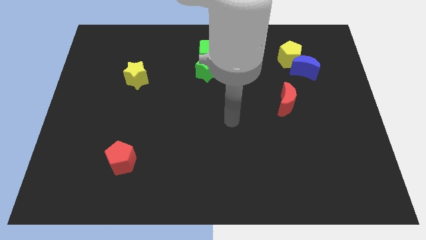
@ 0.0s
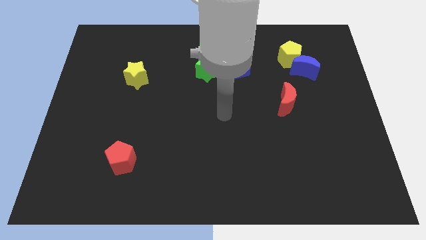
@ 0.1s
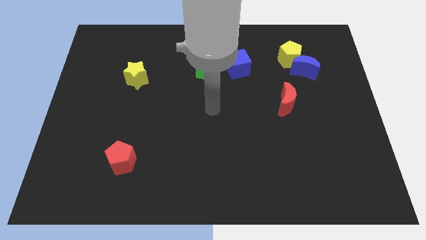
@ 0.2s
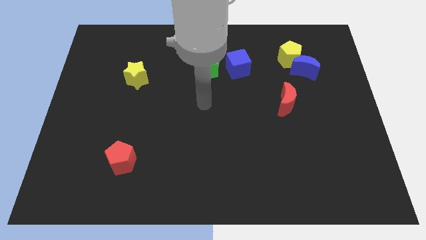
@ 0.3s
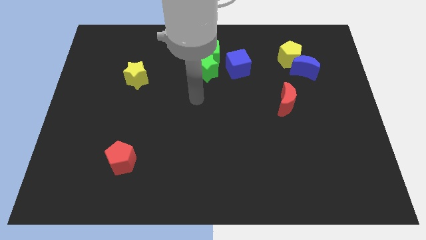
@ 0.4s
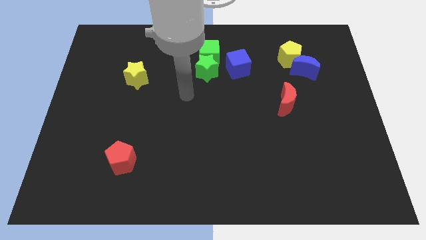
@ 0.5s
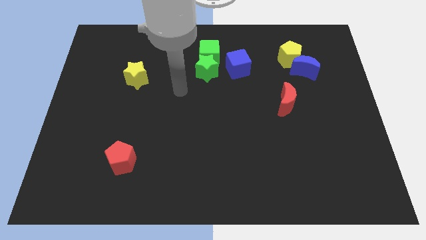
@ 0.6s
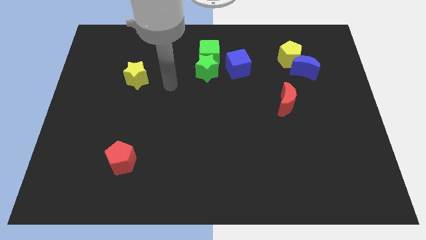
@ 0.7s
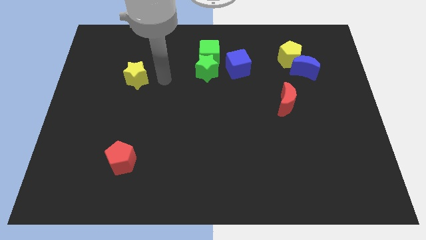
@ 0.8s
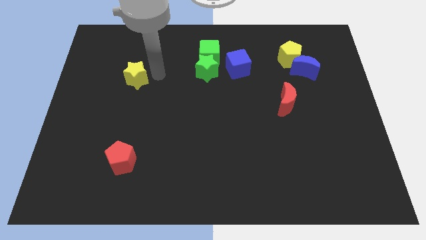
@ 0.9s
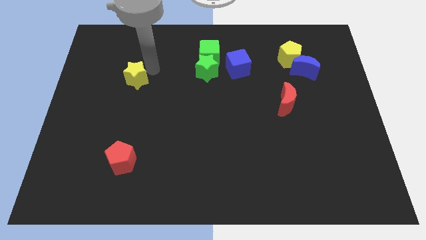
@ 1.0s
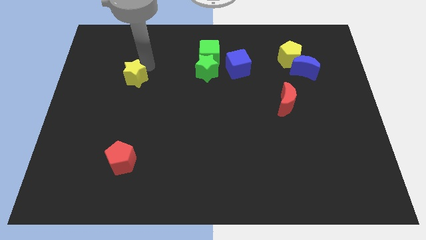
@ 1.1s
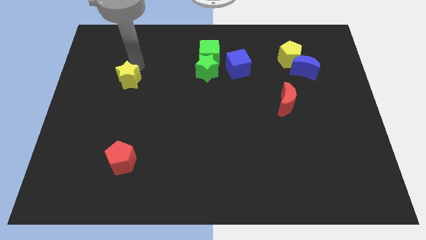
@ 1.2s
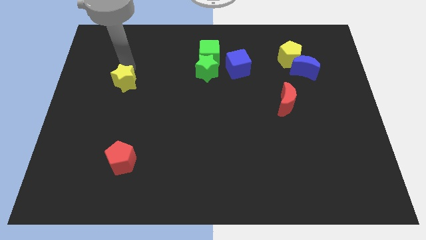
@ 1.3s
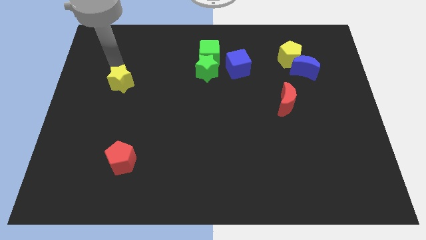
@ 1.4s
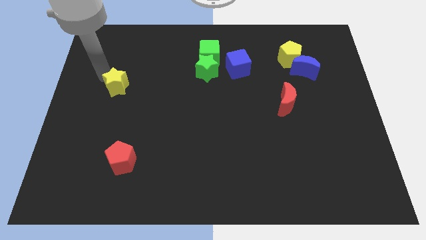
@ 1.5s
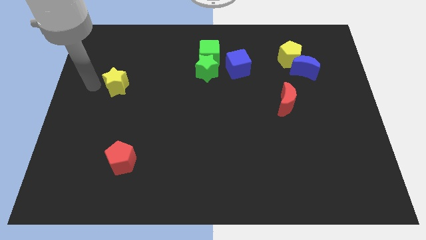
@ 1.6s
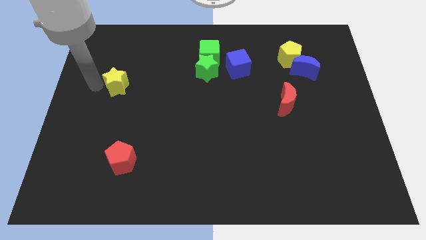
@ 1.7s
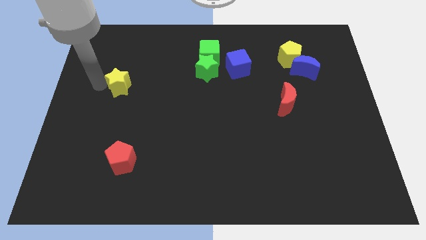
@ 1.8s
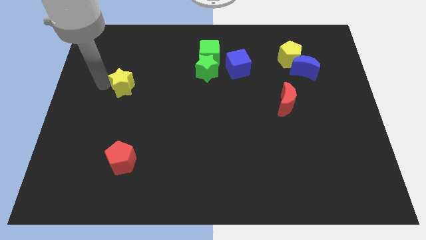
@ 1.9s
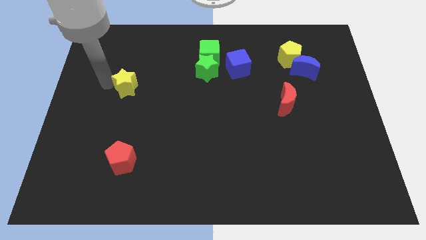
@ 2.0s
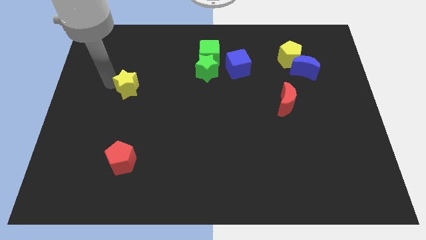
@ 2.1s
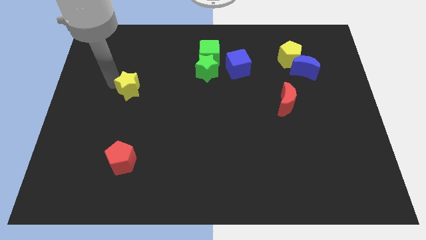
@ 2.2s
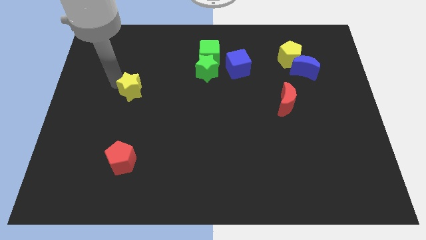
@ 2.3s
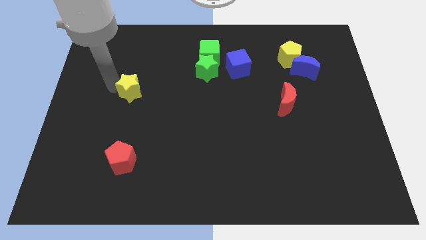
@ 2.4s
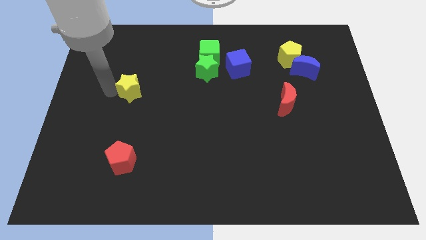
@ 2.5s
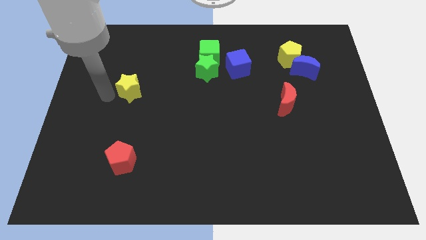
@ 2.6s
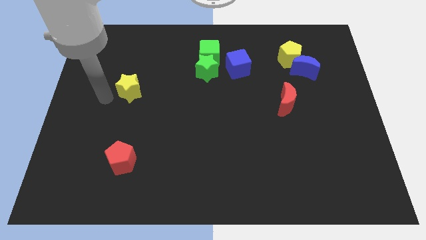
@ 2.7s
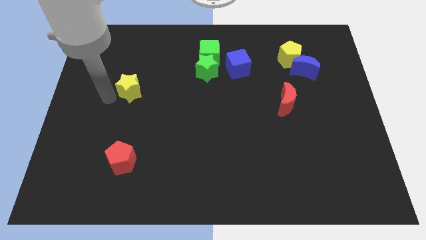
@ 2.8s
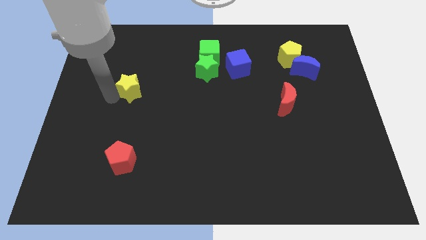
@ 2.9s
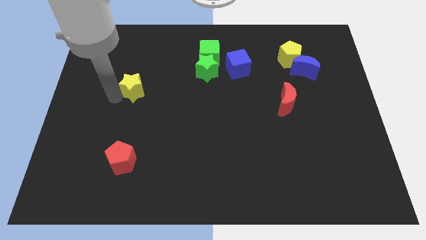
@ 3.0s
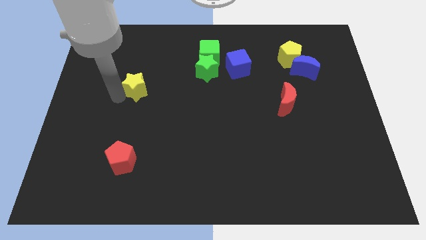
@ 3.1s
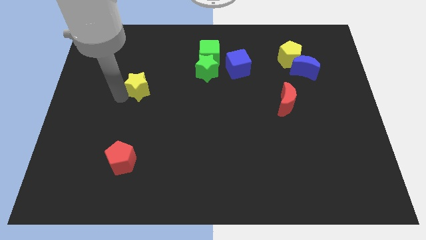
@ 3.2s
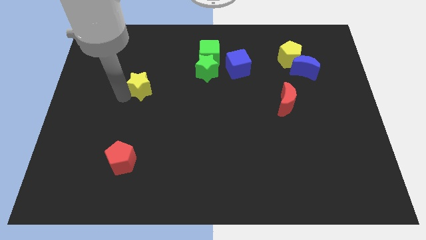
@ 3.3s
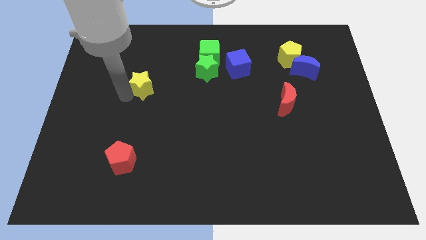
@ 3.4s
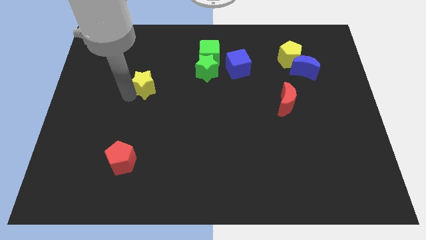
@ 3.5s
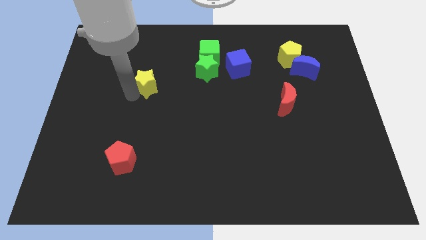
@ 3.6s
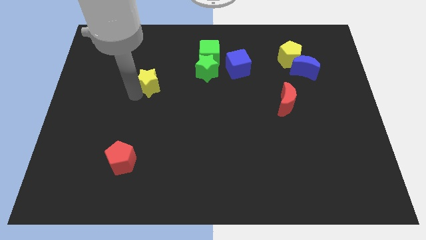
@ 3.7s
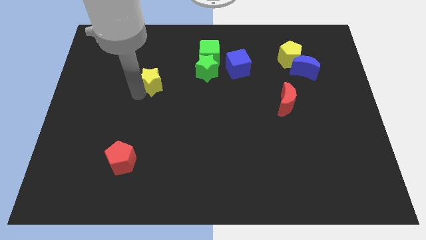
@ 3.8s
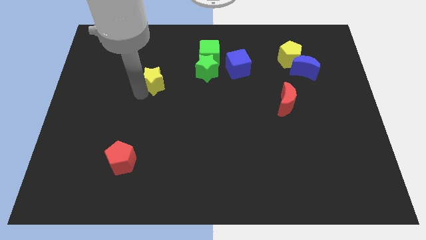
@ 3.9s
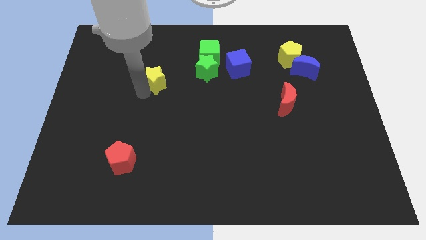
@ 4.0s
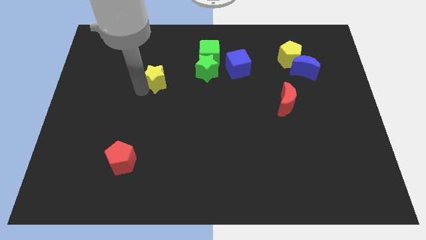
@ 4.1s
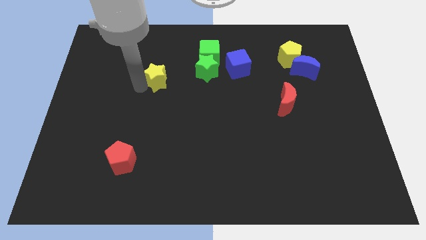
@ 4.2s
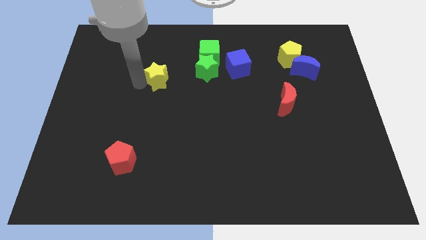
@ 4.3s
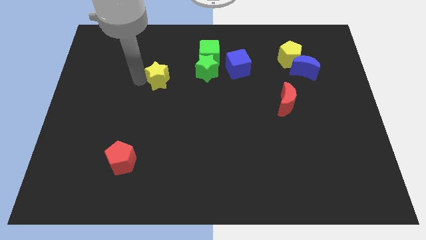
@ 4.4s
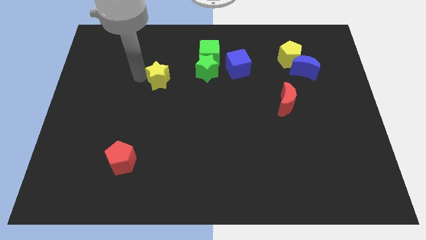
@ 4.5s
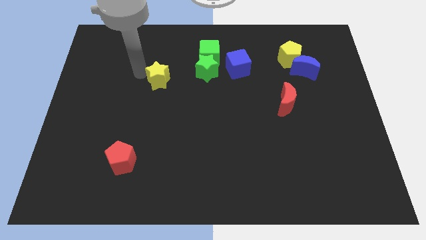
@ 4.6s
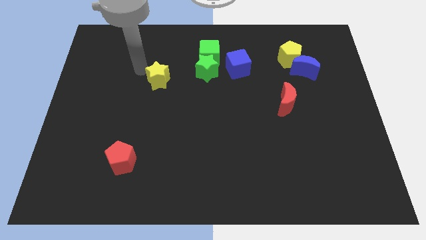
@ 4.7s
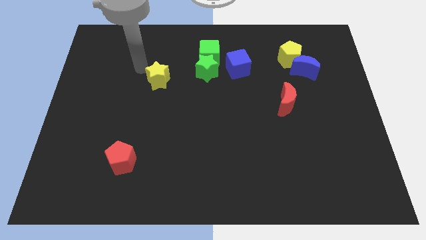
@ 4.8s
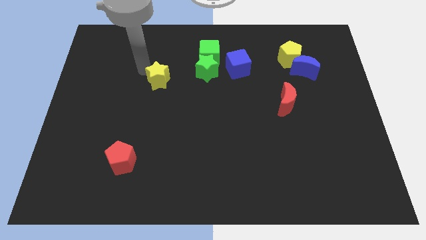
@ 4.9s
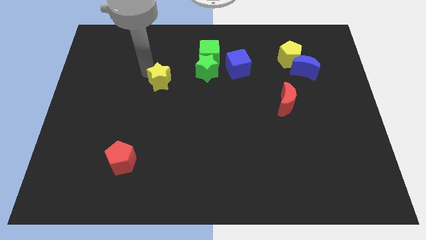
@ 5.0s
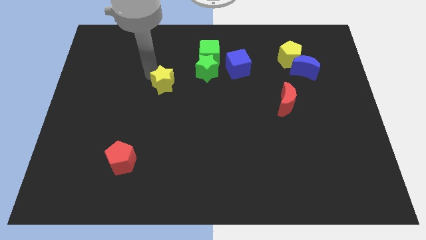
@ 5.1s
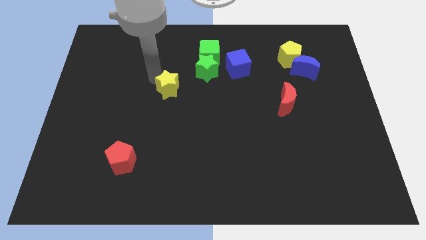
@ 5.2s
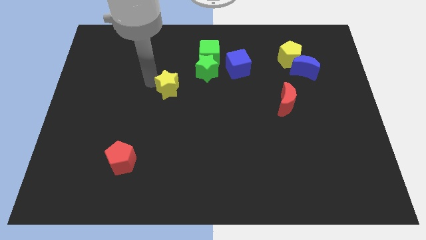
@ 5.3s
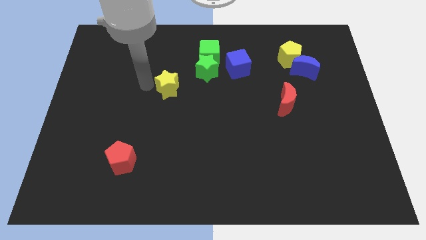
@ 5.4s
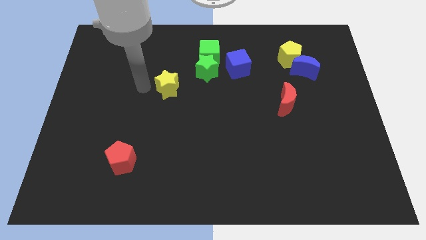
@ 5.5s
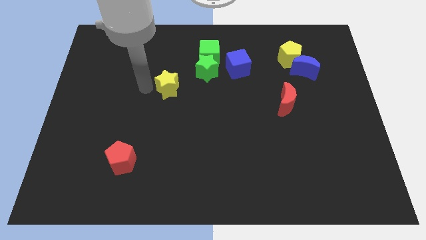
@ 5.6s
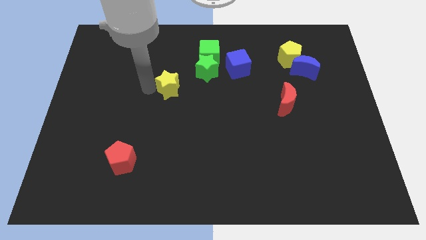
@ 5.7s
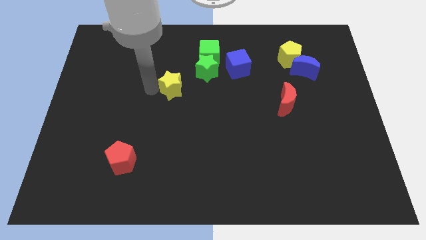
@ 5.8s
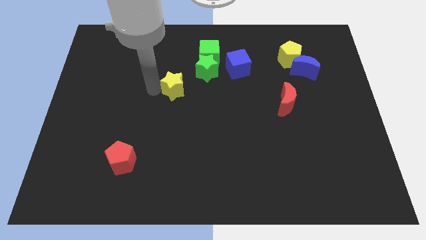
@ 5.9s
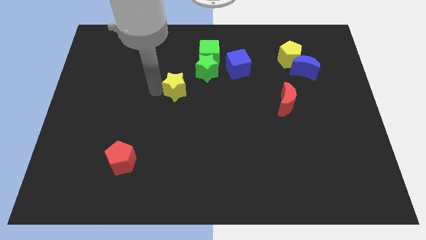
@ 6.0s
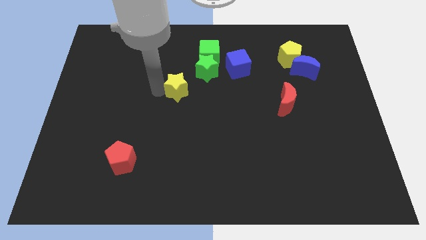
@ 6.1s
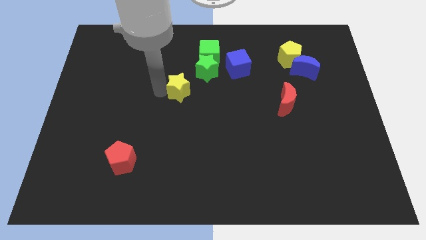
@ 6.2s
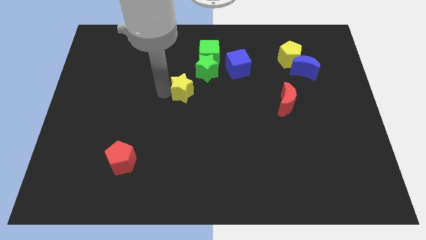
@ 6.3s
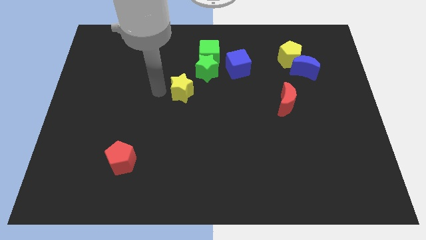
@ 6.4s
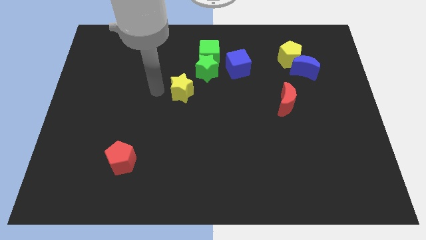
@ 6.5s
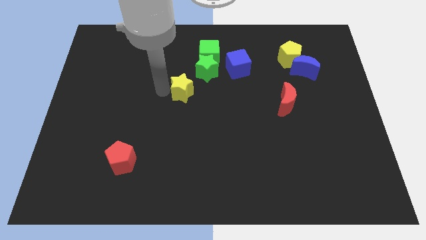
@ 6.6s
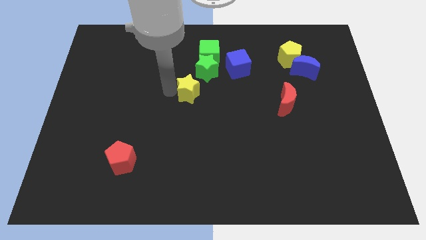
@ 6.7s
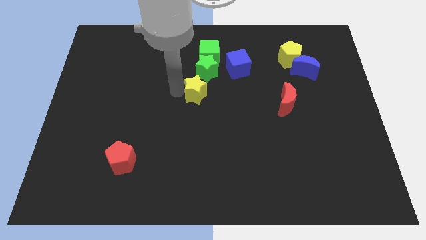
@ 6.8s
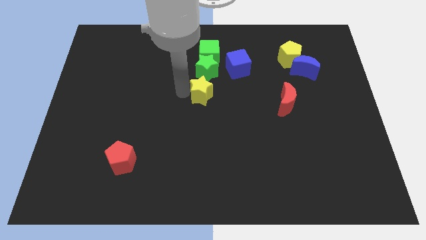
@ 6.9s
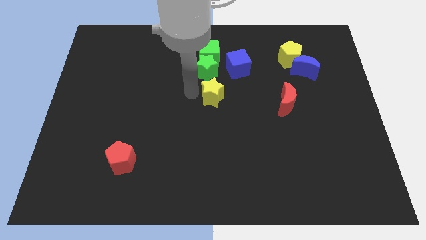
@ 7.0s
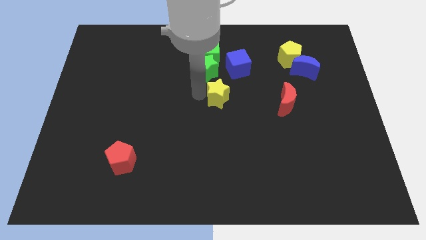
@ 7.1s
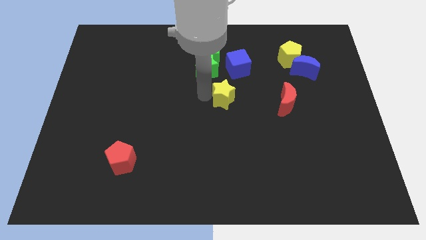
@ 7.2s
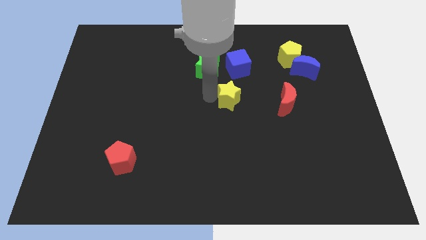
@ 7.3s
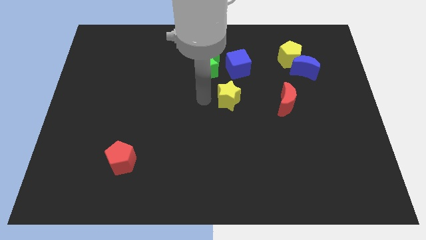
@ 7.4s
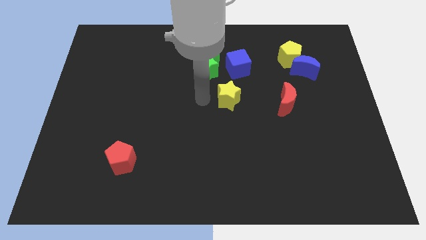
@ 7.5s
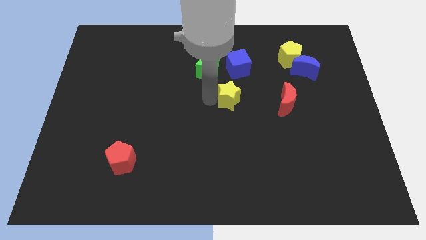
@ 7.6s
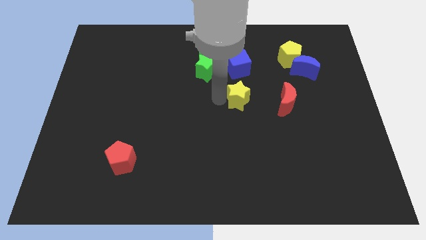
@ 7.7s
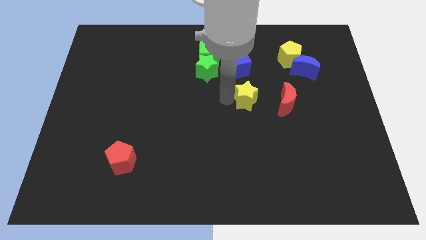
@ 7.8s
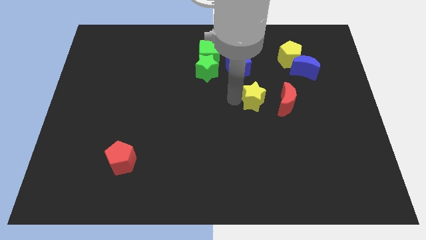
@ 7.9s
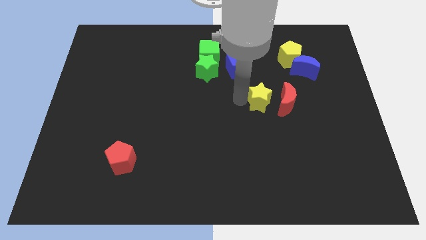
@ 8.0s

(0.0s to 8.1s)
slide the yellow star close to the red moon
